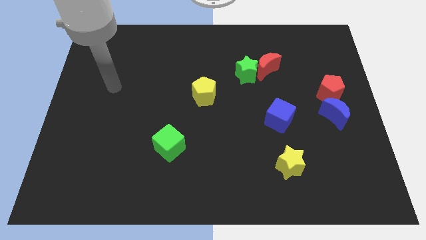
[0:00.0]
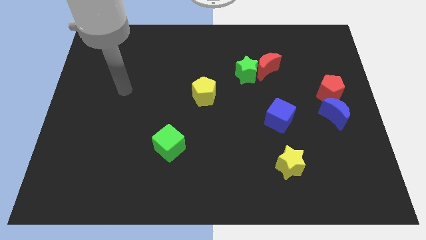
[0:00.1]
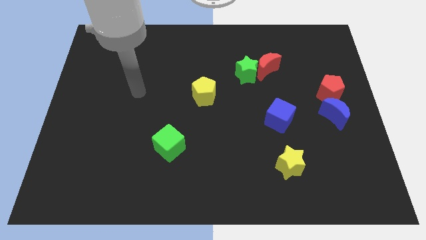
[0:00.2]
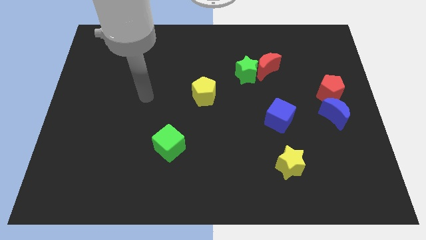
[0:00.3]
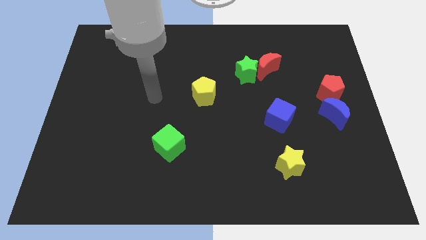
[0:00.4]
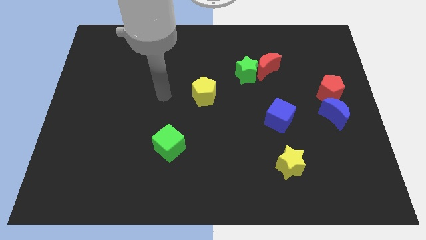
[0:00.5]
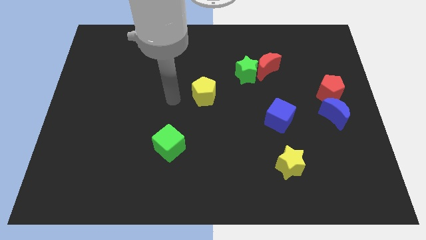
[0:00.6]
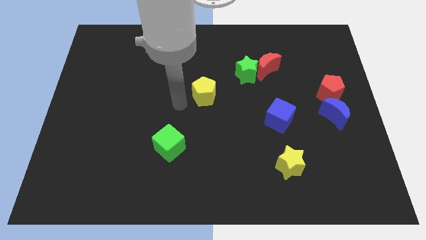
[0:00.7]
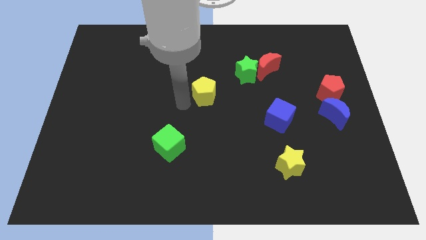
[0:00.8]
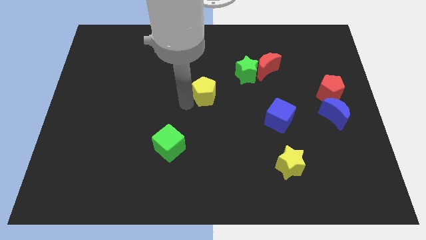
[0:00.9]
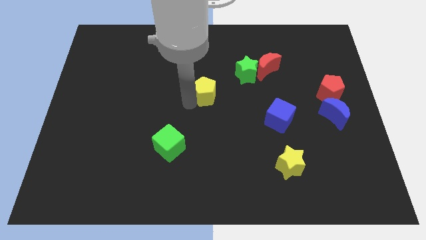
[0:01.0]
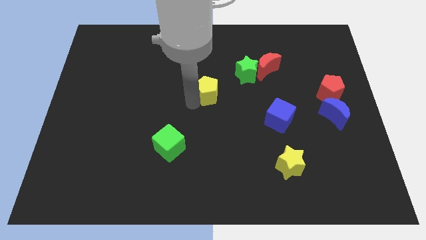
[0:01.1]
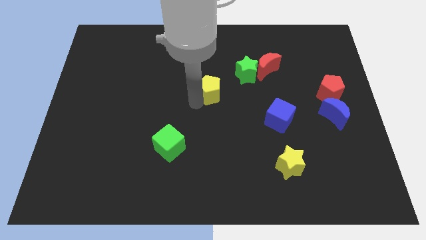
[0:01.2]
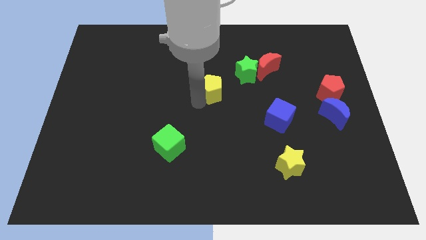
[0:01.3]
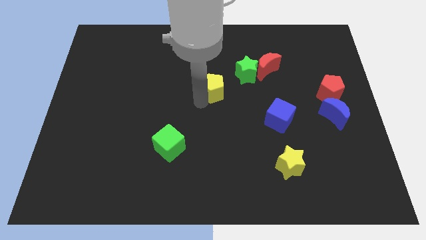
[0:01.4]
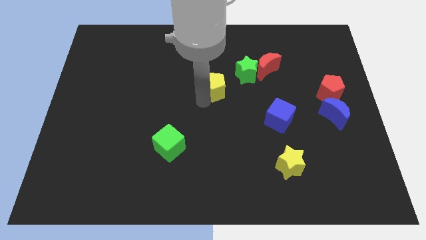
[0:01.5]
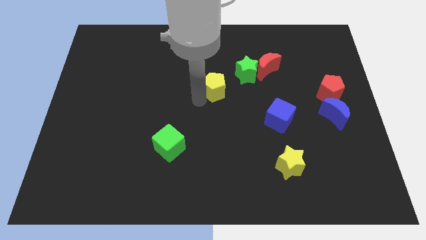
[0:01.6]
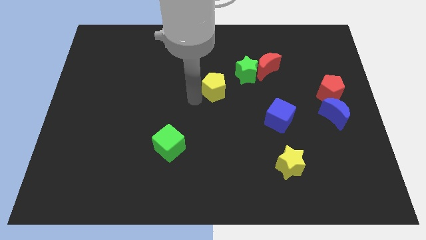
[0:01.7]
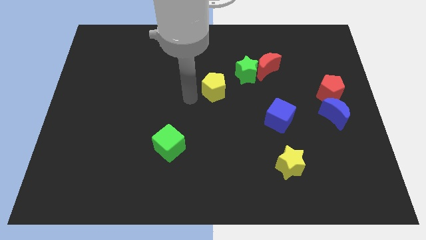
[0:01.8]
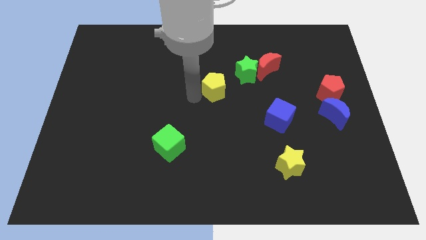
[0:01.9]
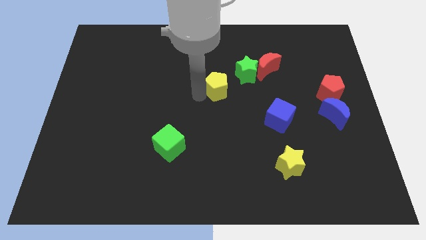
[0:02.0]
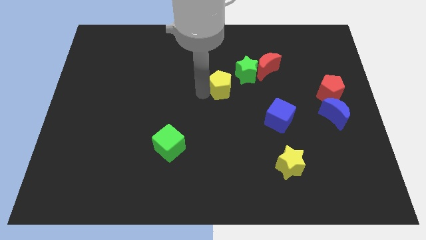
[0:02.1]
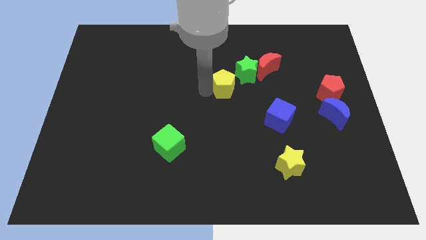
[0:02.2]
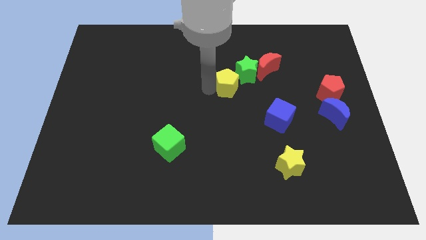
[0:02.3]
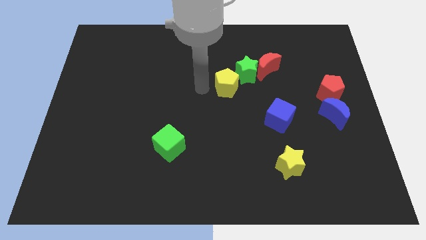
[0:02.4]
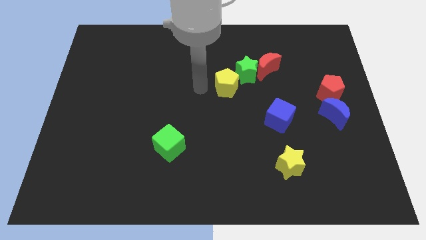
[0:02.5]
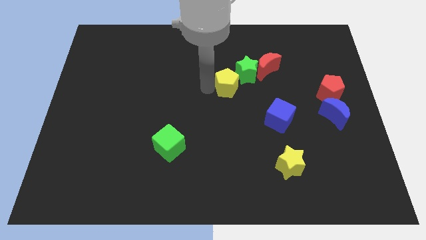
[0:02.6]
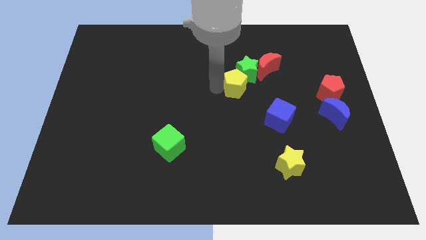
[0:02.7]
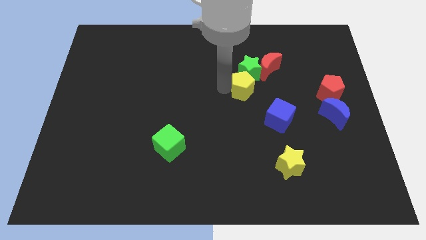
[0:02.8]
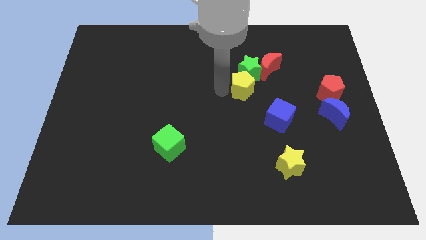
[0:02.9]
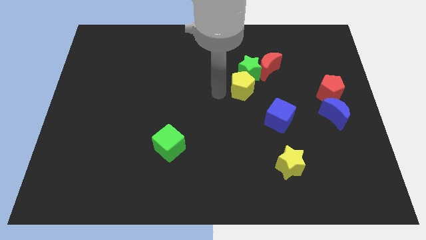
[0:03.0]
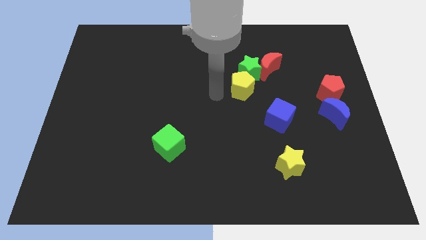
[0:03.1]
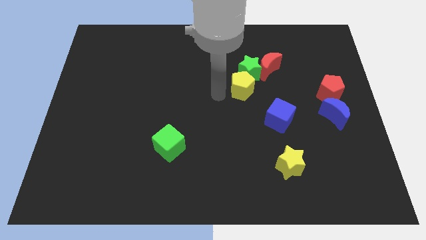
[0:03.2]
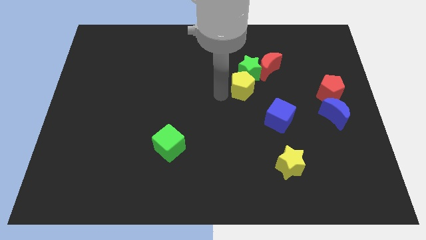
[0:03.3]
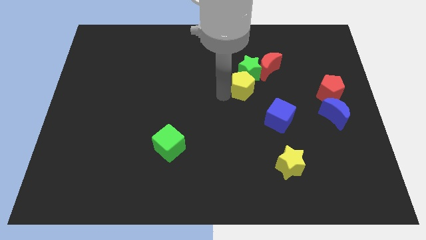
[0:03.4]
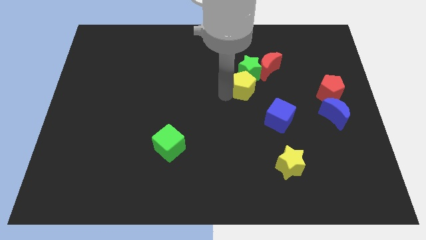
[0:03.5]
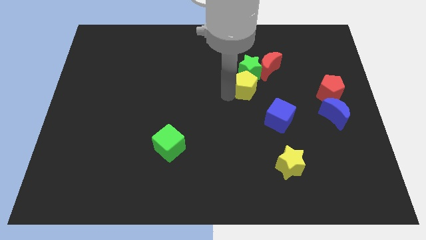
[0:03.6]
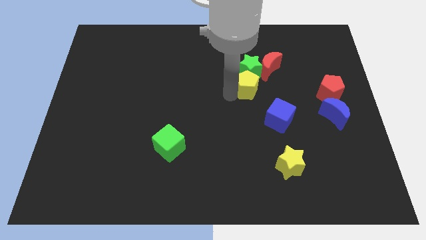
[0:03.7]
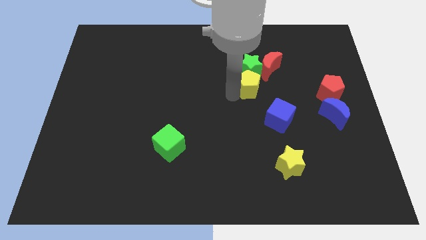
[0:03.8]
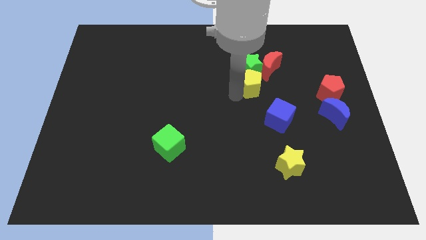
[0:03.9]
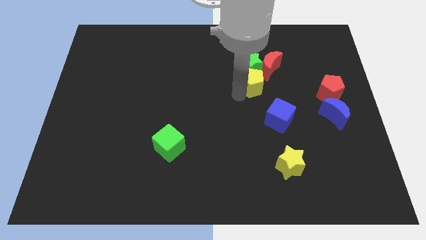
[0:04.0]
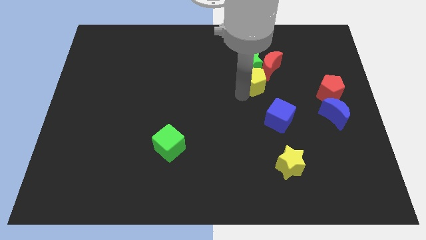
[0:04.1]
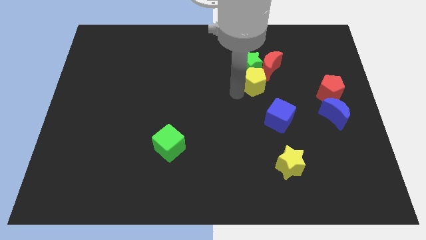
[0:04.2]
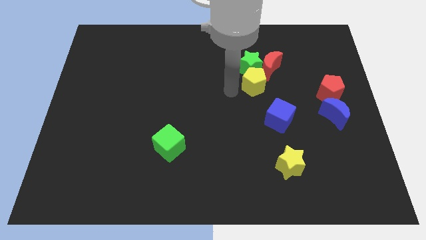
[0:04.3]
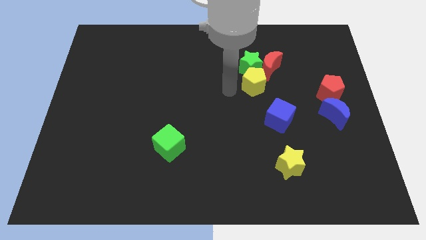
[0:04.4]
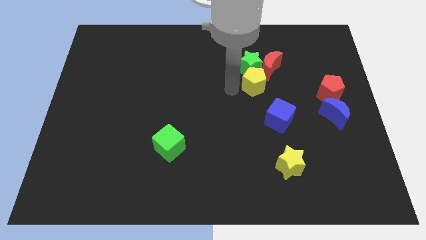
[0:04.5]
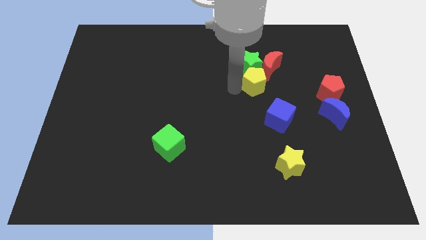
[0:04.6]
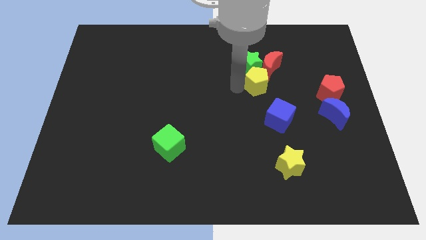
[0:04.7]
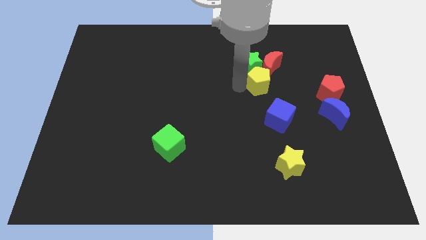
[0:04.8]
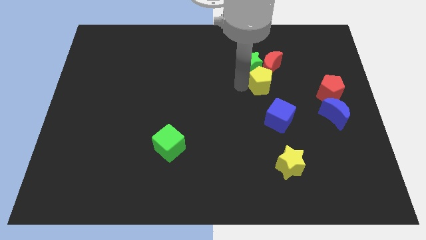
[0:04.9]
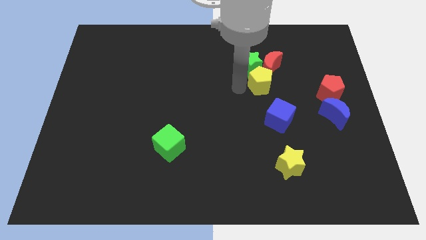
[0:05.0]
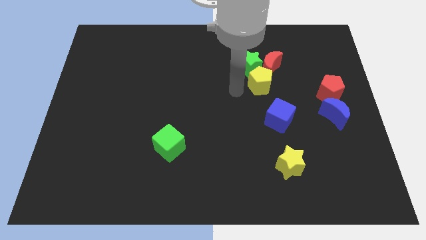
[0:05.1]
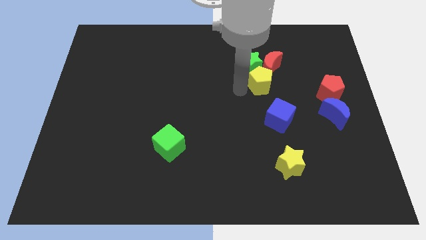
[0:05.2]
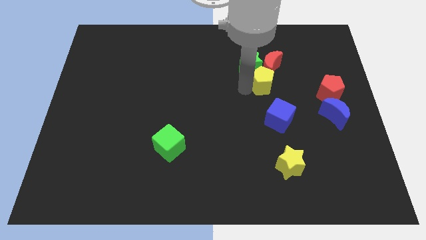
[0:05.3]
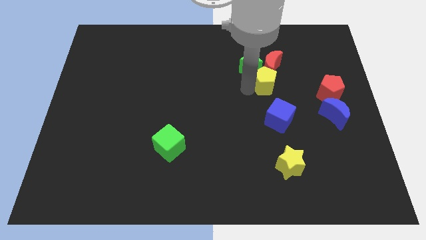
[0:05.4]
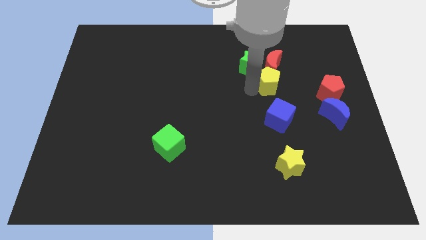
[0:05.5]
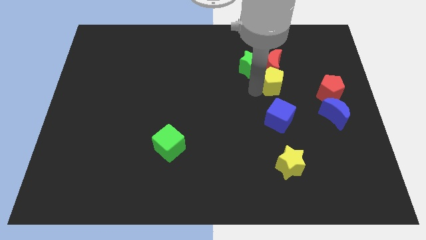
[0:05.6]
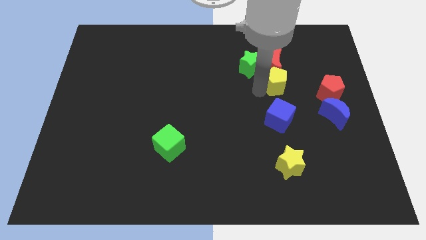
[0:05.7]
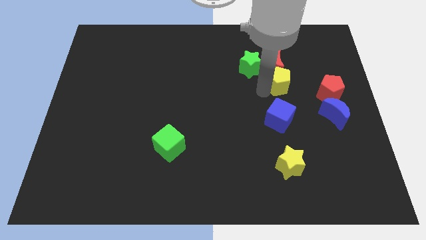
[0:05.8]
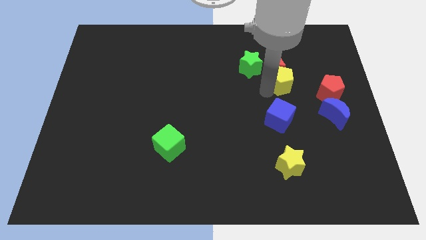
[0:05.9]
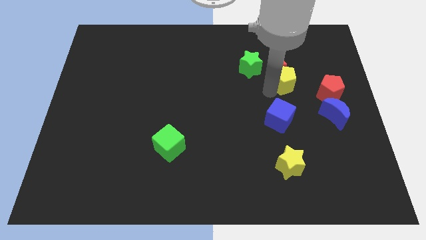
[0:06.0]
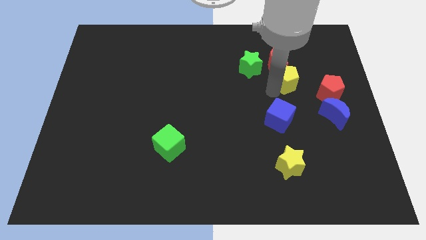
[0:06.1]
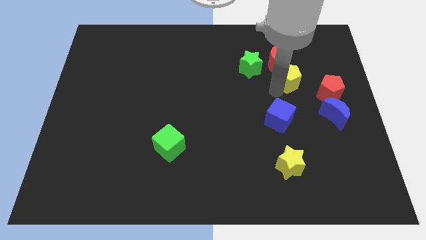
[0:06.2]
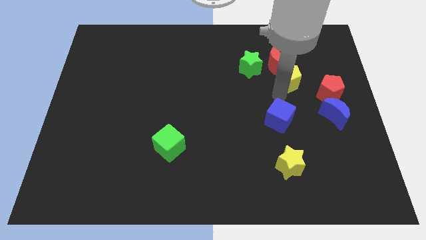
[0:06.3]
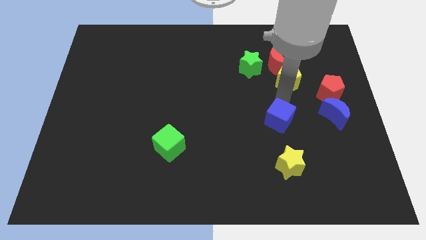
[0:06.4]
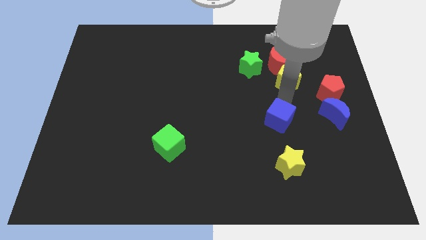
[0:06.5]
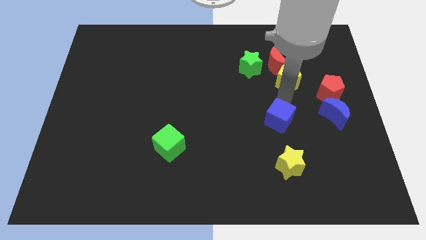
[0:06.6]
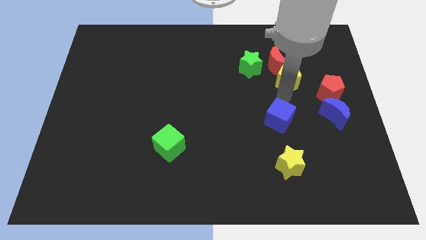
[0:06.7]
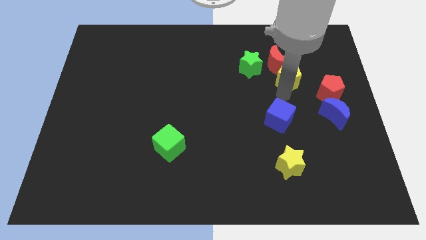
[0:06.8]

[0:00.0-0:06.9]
slide the yellow pentagon to the right side of the green star
